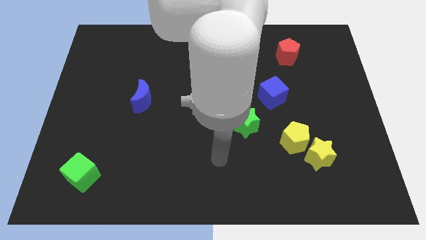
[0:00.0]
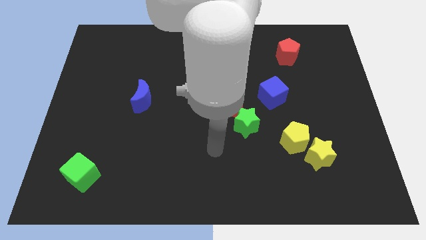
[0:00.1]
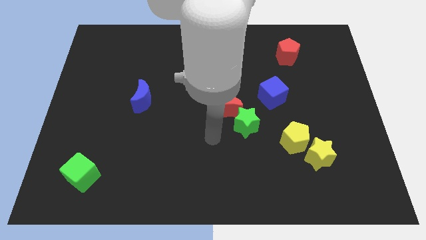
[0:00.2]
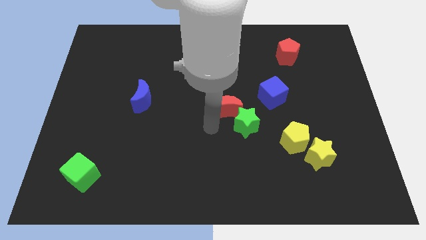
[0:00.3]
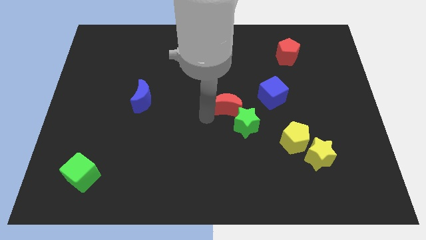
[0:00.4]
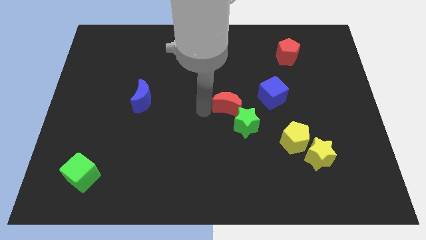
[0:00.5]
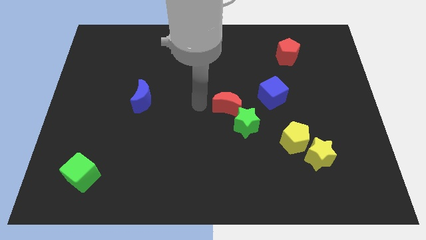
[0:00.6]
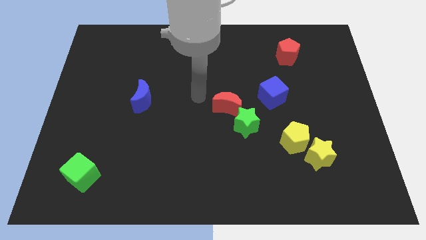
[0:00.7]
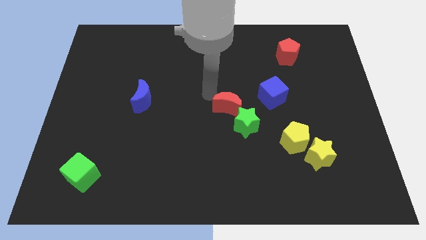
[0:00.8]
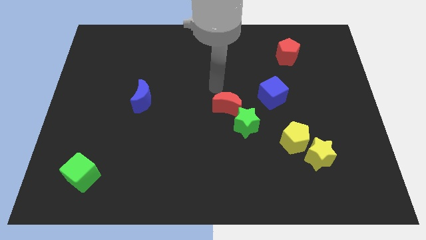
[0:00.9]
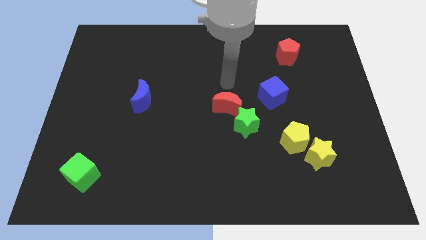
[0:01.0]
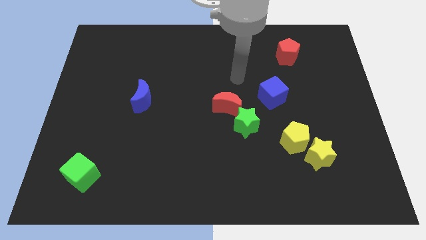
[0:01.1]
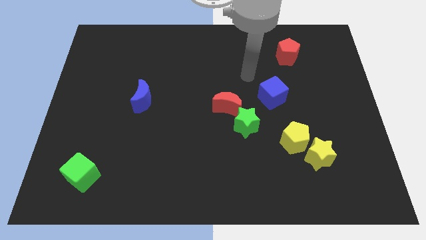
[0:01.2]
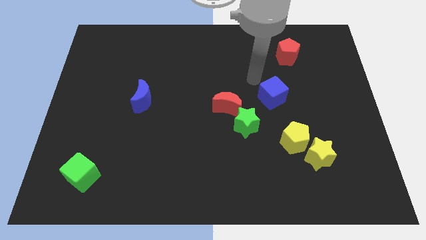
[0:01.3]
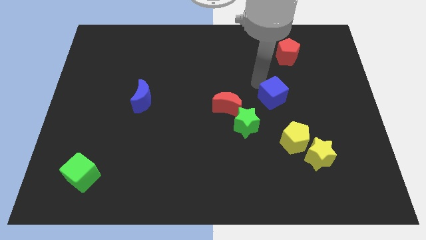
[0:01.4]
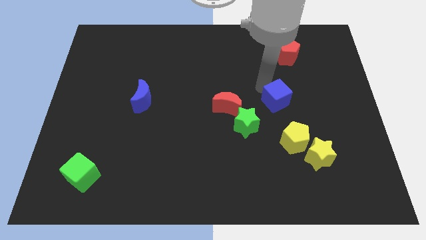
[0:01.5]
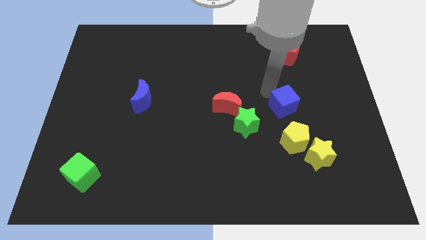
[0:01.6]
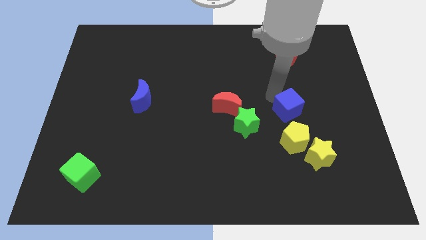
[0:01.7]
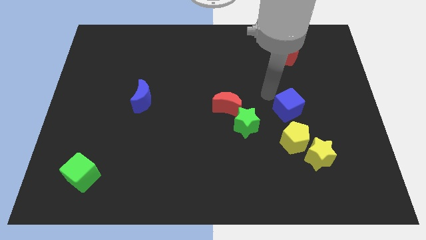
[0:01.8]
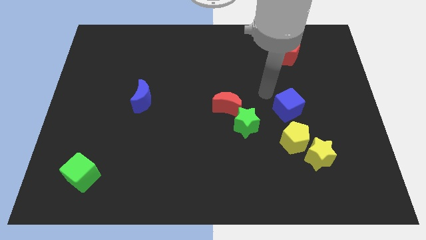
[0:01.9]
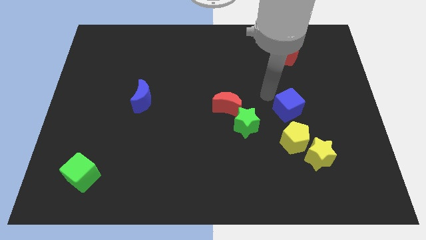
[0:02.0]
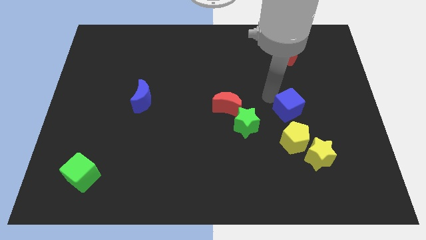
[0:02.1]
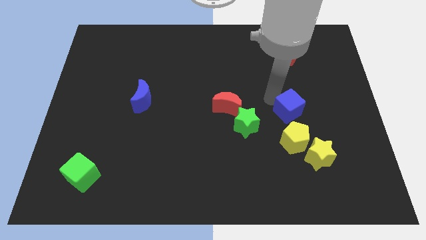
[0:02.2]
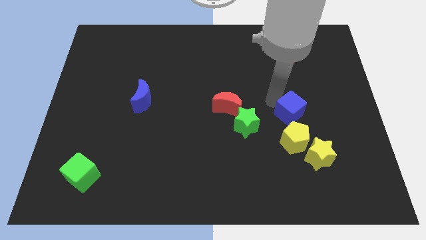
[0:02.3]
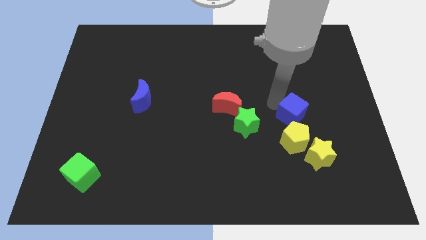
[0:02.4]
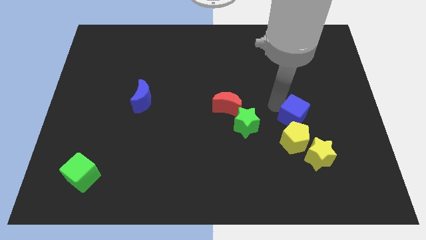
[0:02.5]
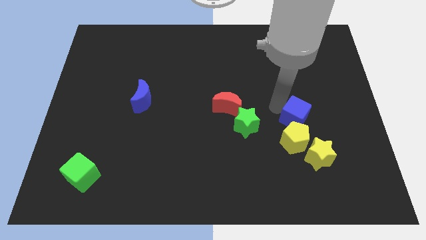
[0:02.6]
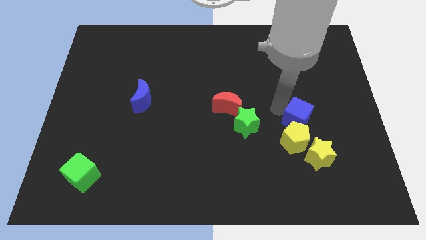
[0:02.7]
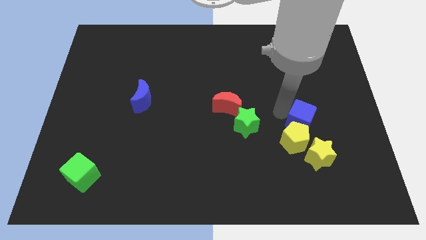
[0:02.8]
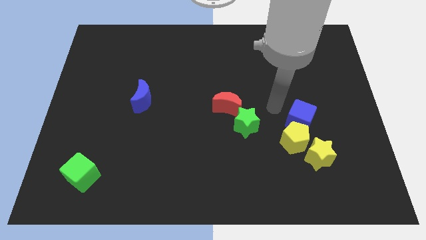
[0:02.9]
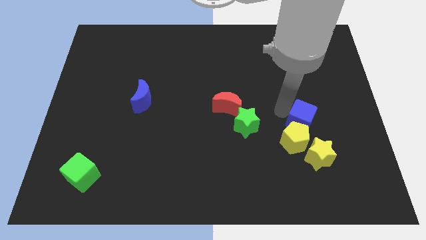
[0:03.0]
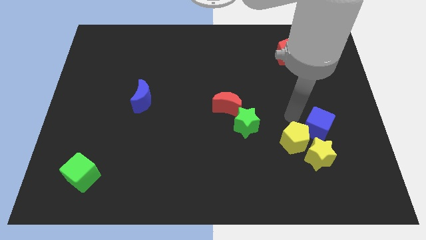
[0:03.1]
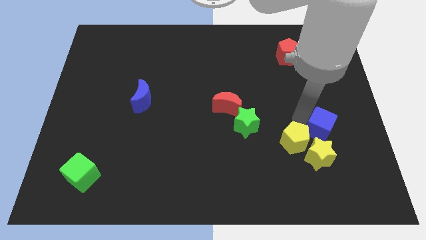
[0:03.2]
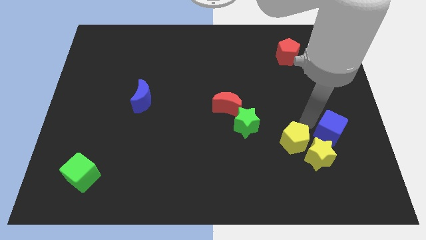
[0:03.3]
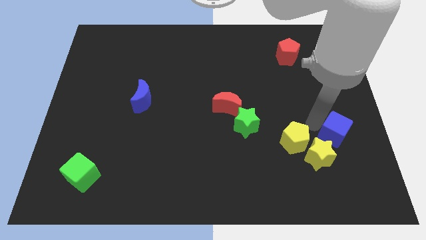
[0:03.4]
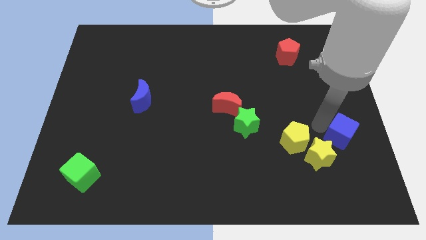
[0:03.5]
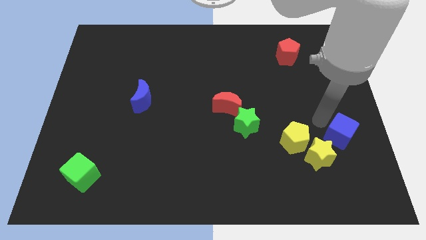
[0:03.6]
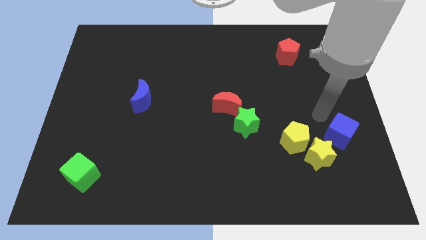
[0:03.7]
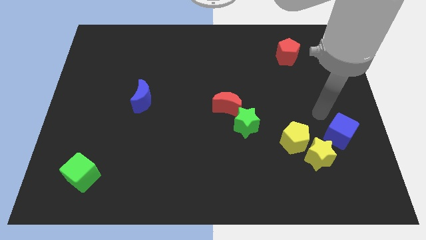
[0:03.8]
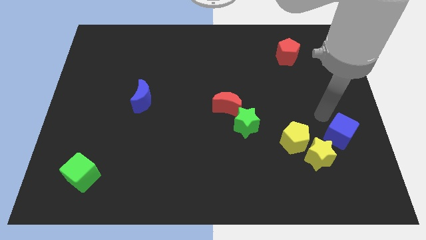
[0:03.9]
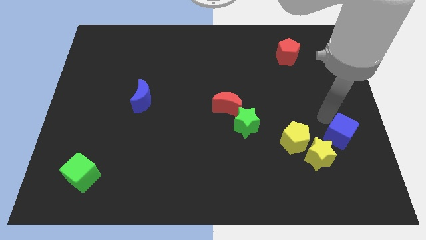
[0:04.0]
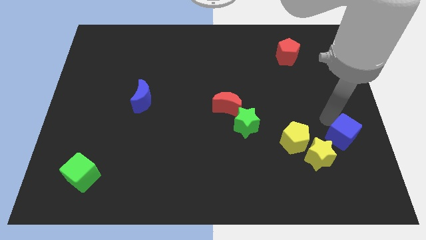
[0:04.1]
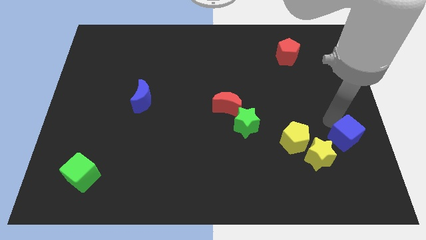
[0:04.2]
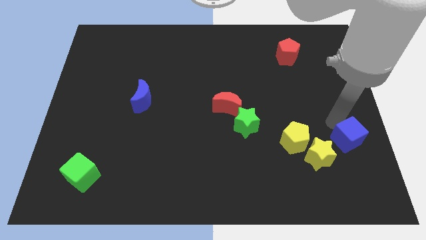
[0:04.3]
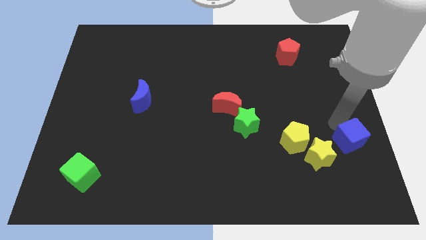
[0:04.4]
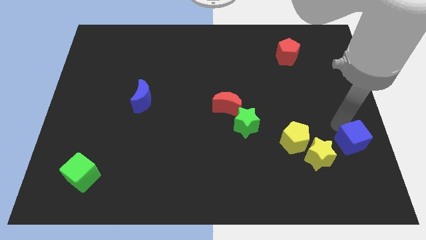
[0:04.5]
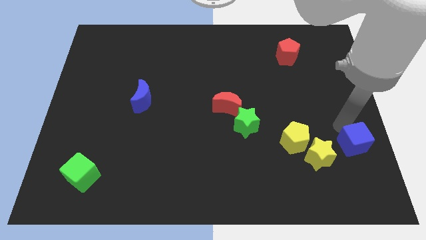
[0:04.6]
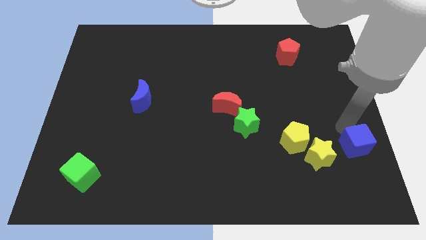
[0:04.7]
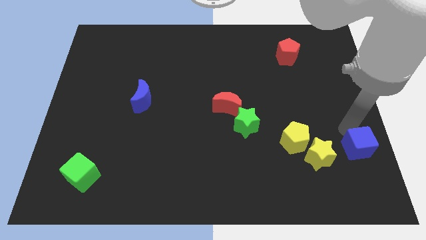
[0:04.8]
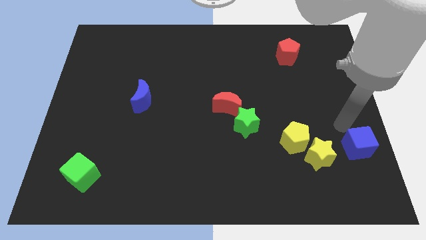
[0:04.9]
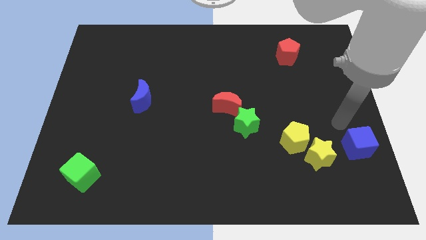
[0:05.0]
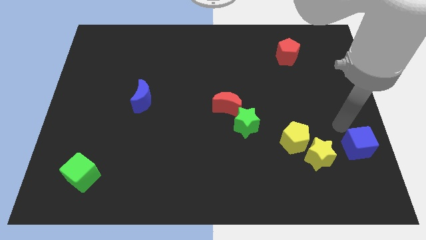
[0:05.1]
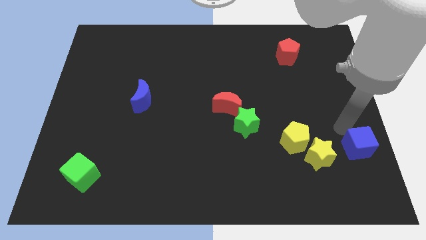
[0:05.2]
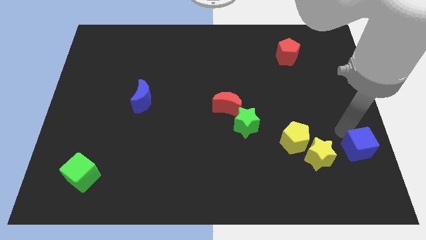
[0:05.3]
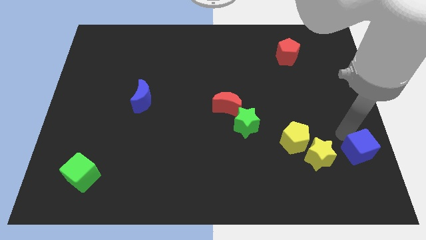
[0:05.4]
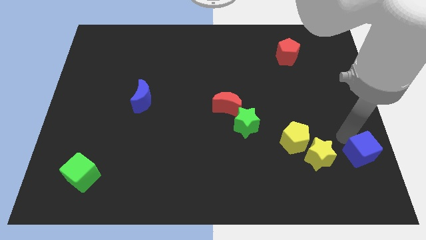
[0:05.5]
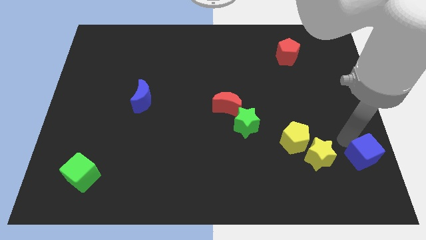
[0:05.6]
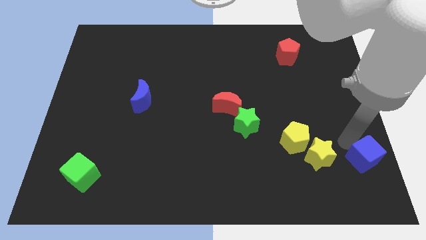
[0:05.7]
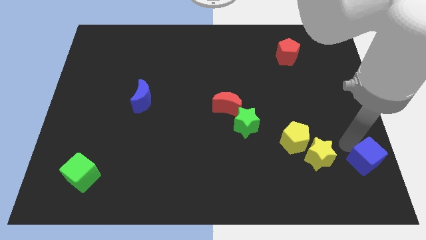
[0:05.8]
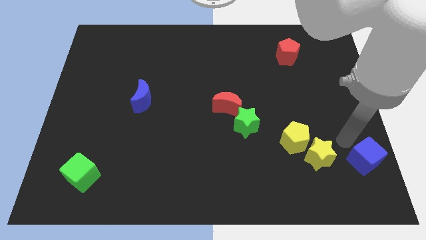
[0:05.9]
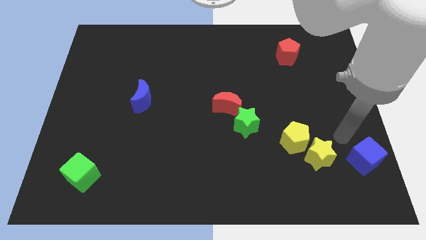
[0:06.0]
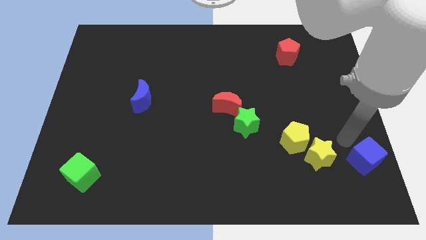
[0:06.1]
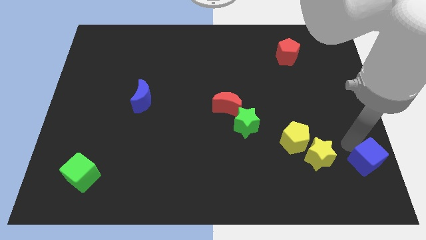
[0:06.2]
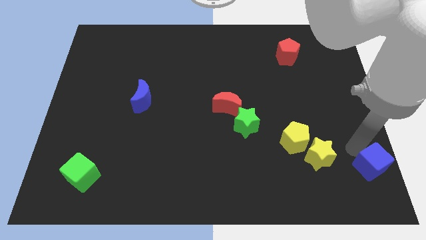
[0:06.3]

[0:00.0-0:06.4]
put the blue cube to the bottom right corner
